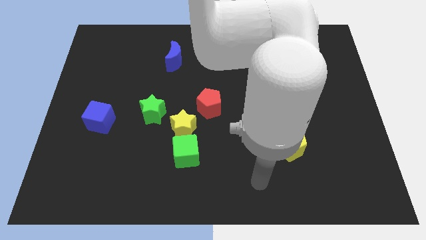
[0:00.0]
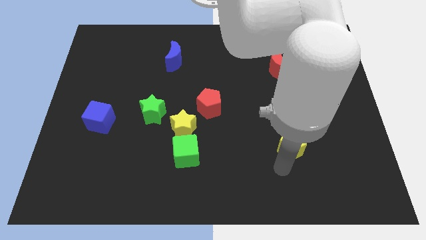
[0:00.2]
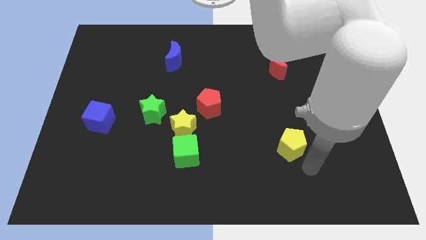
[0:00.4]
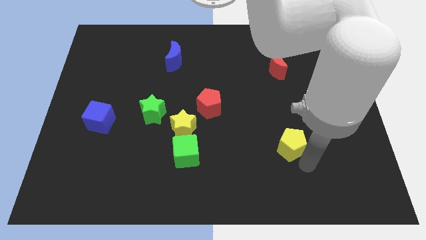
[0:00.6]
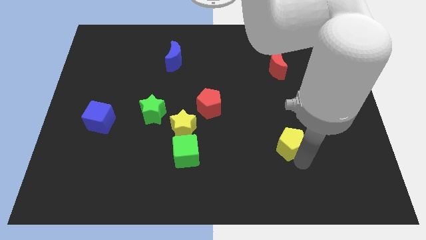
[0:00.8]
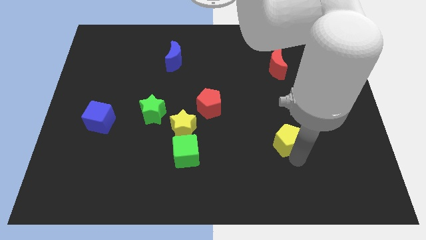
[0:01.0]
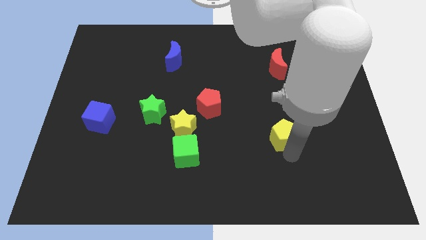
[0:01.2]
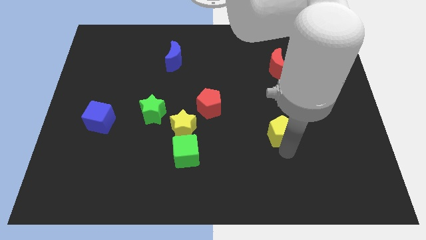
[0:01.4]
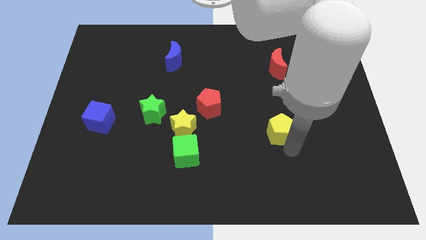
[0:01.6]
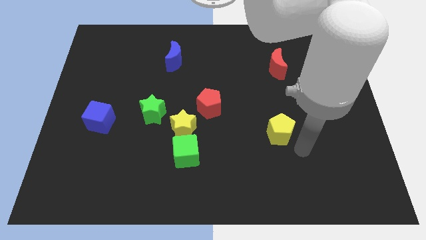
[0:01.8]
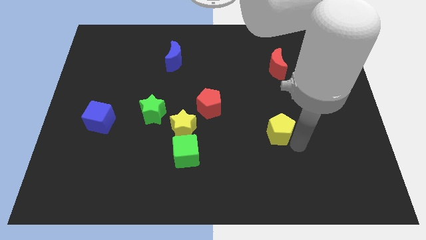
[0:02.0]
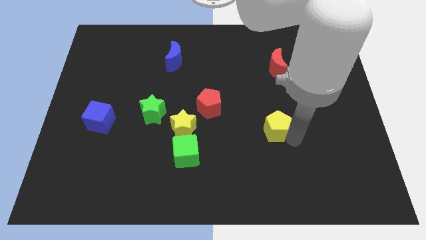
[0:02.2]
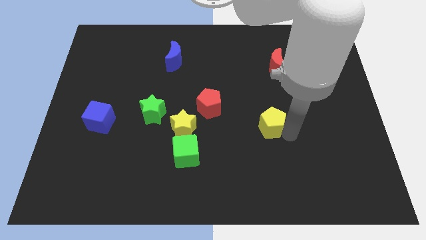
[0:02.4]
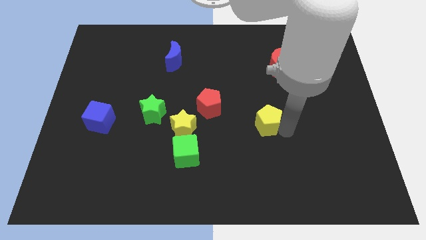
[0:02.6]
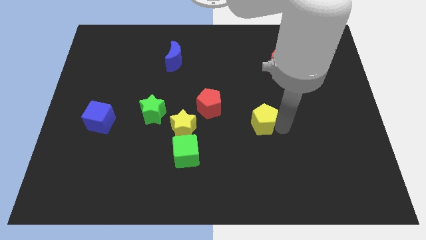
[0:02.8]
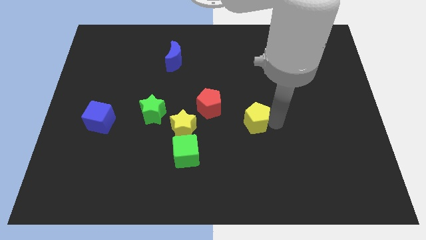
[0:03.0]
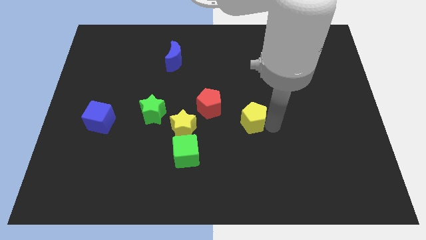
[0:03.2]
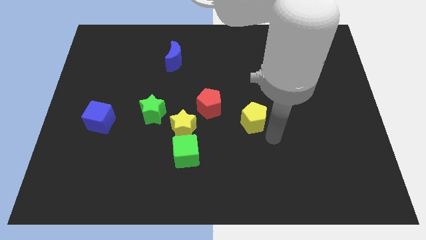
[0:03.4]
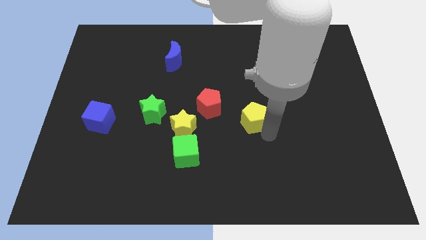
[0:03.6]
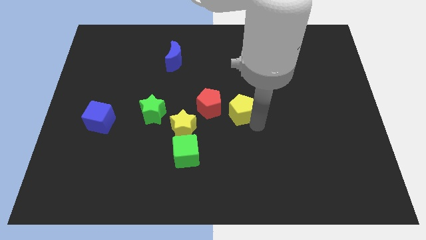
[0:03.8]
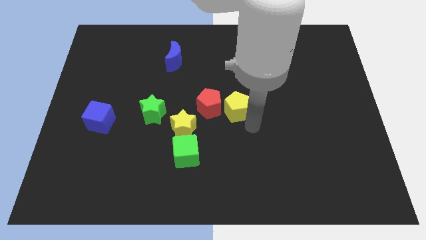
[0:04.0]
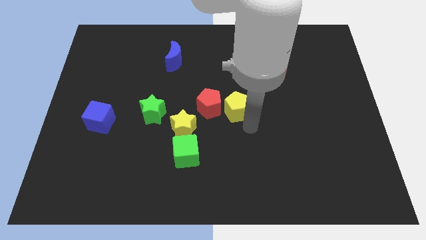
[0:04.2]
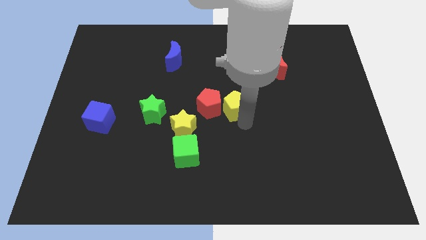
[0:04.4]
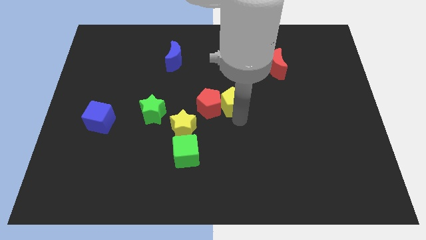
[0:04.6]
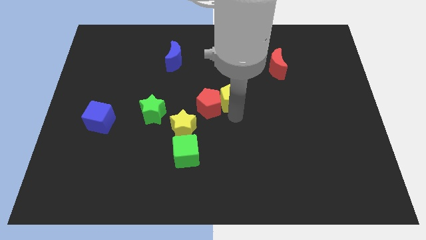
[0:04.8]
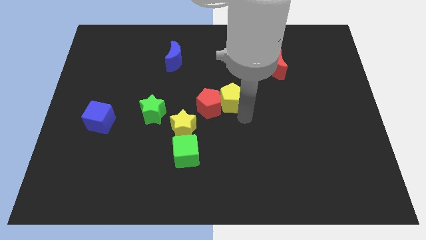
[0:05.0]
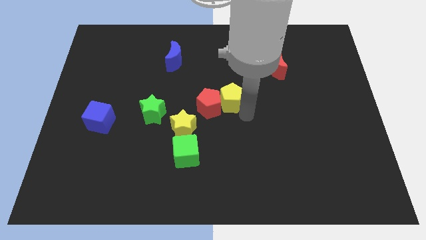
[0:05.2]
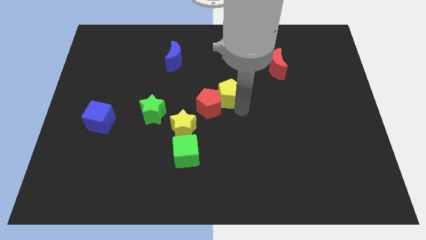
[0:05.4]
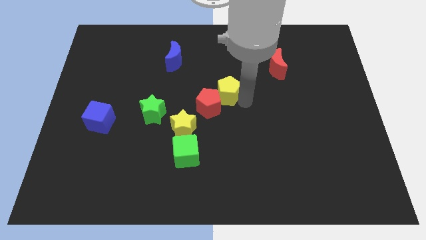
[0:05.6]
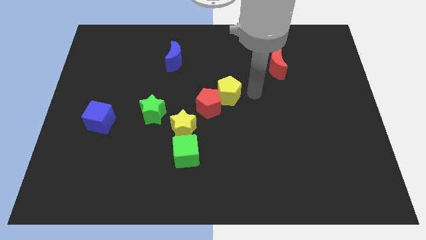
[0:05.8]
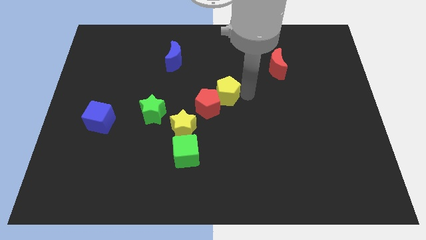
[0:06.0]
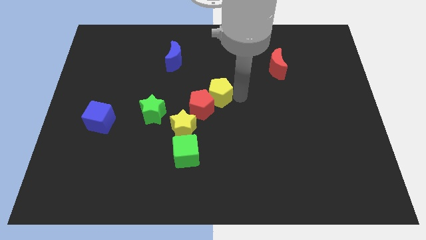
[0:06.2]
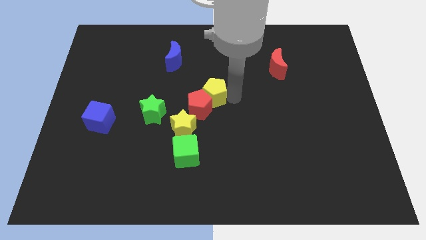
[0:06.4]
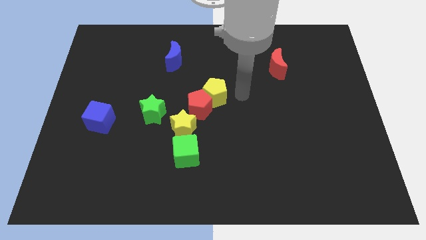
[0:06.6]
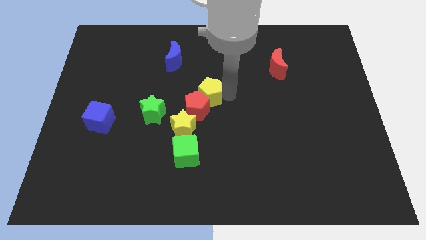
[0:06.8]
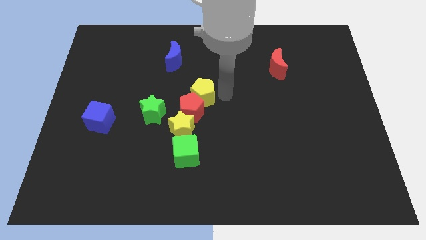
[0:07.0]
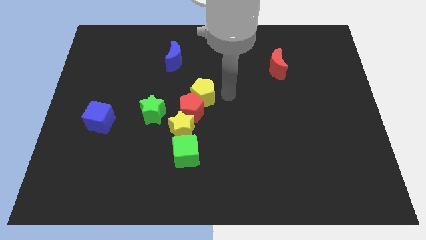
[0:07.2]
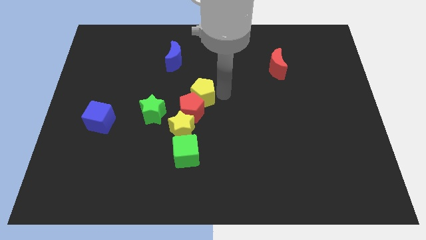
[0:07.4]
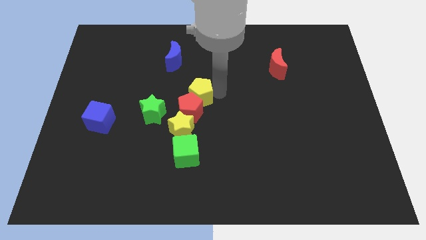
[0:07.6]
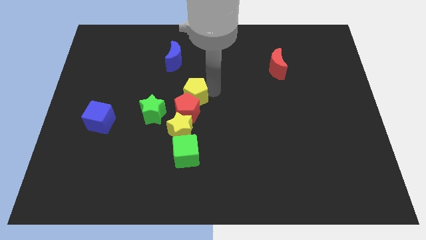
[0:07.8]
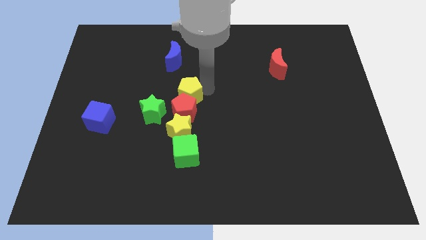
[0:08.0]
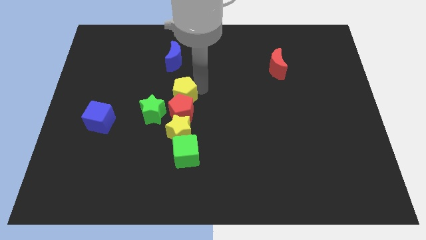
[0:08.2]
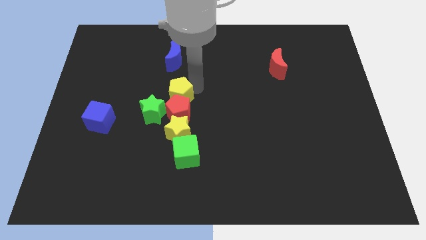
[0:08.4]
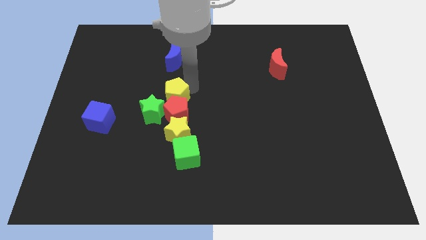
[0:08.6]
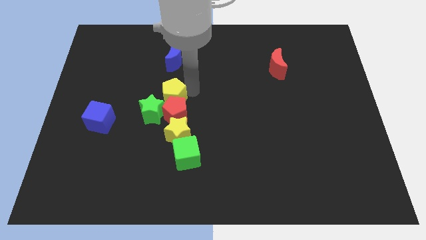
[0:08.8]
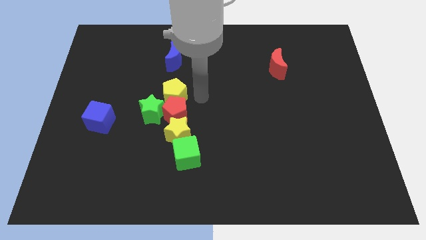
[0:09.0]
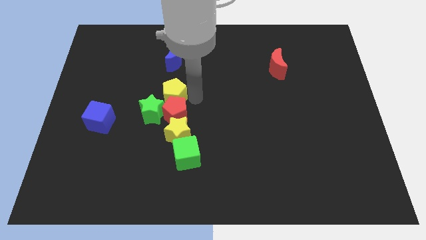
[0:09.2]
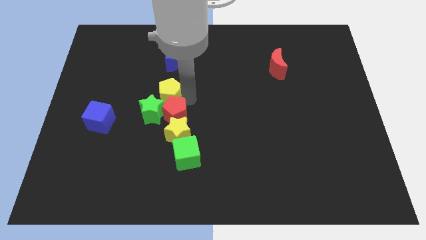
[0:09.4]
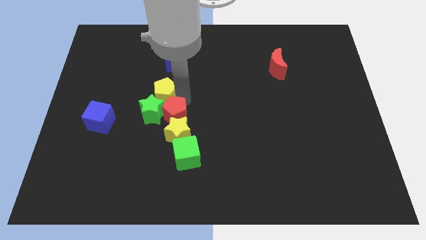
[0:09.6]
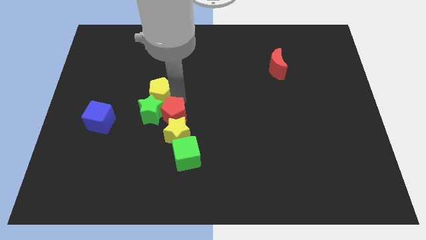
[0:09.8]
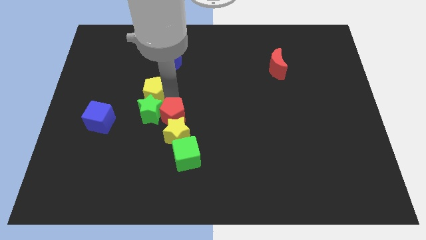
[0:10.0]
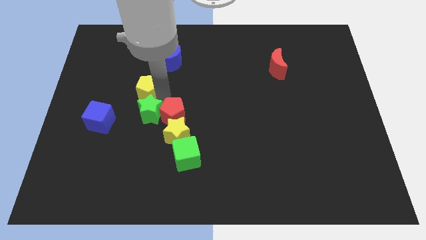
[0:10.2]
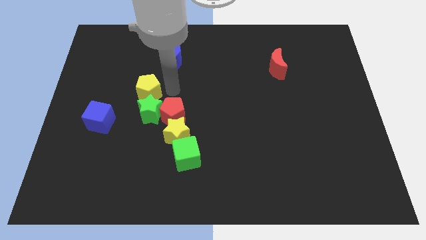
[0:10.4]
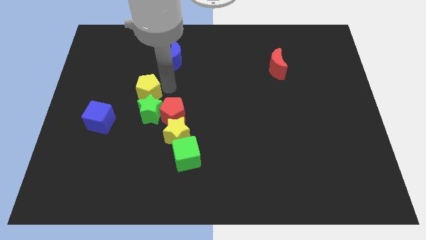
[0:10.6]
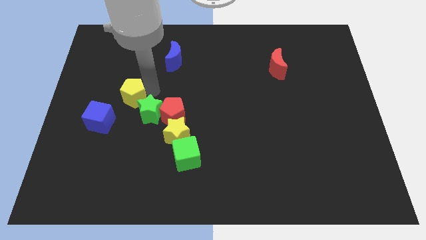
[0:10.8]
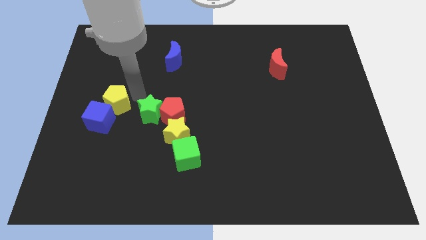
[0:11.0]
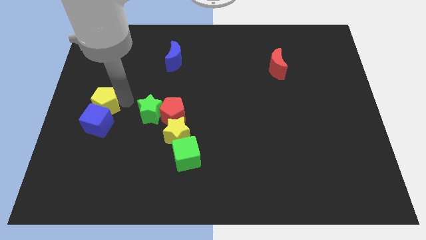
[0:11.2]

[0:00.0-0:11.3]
slide the yellow pentagon to the left side of the board
